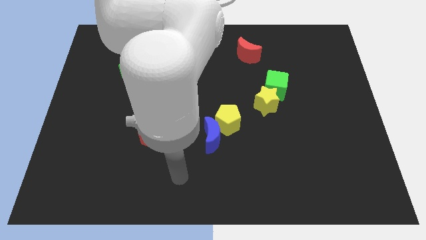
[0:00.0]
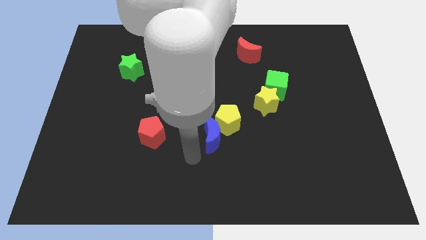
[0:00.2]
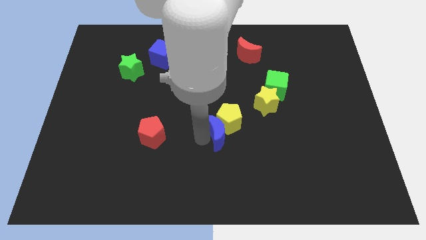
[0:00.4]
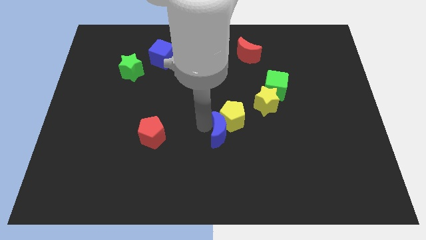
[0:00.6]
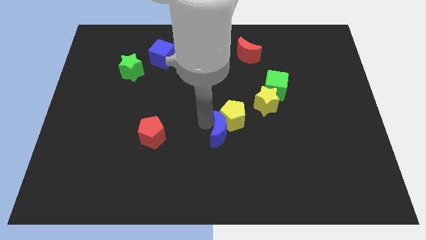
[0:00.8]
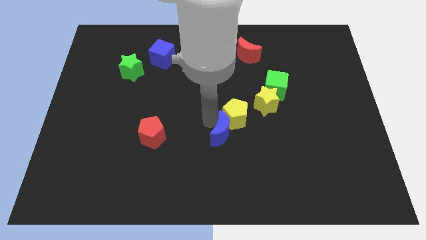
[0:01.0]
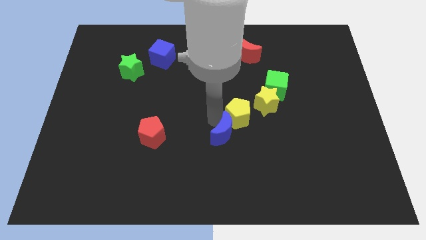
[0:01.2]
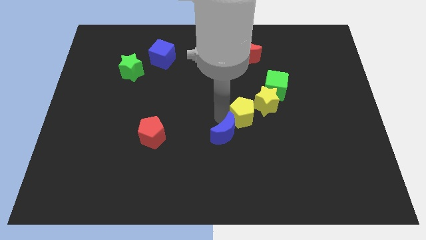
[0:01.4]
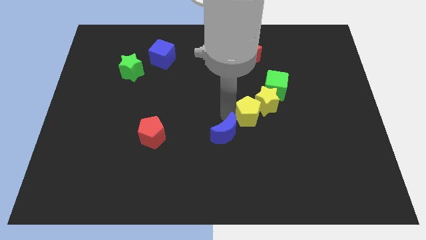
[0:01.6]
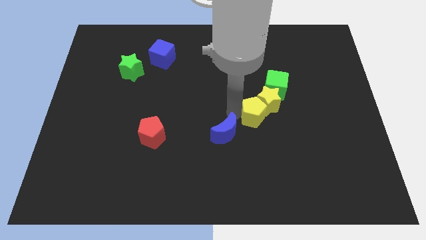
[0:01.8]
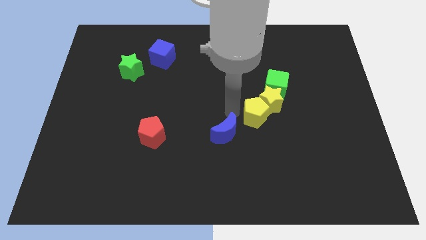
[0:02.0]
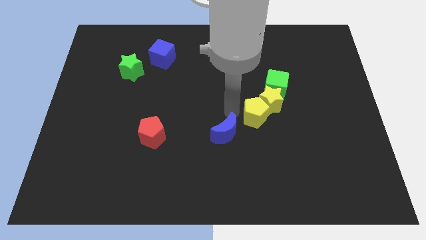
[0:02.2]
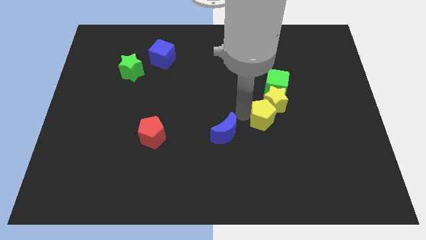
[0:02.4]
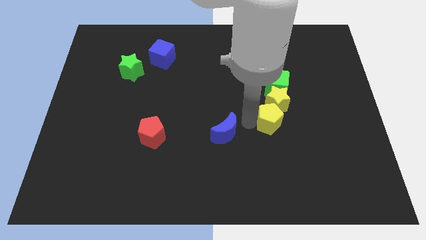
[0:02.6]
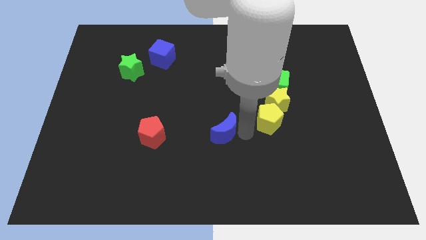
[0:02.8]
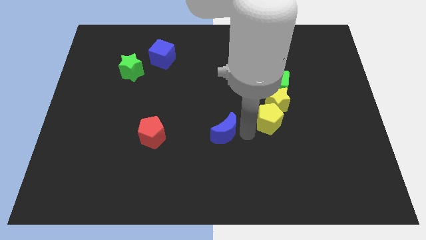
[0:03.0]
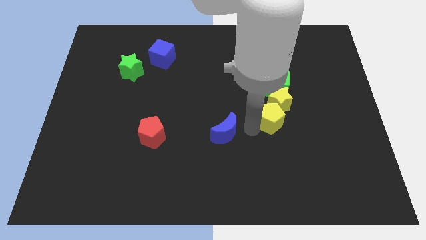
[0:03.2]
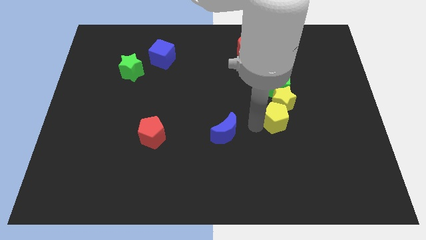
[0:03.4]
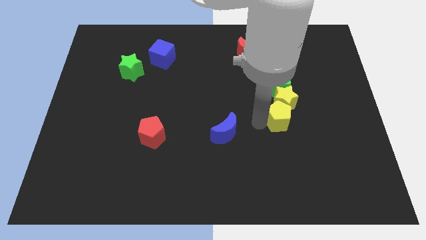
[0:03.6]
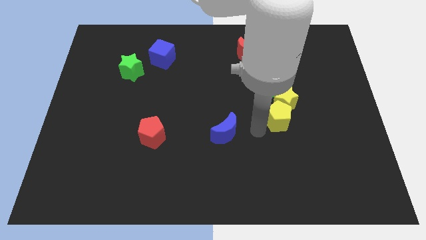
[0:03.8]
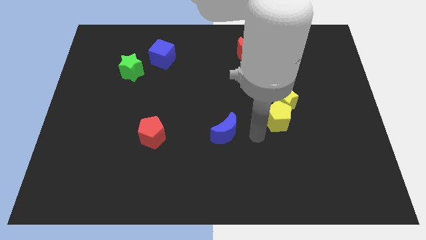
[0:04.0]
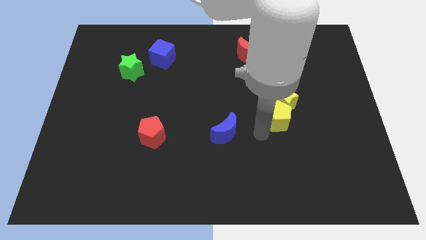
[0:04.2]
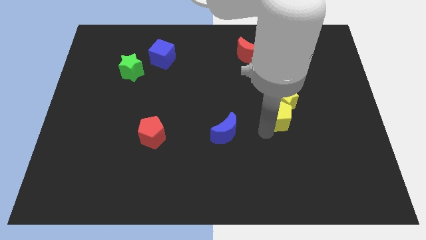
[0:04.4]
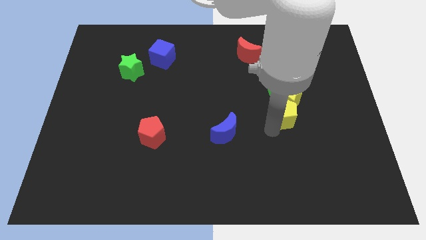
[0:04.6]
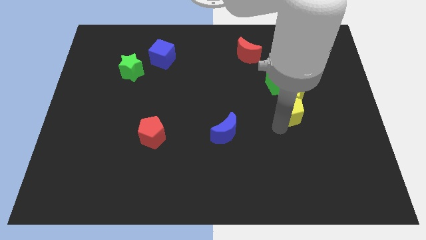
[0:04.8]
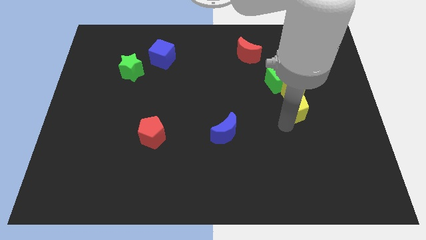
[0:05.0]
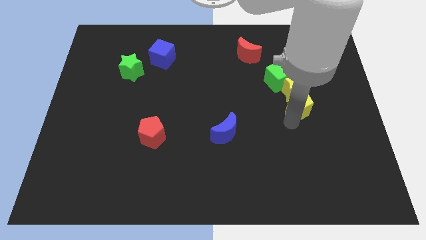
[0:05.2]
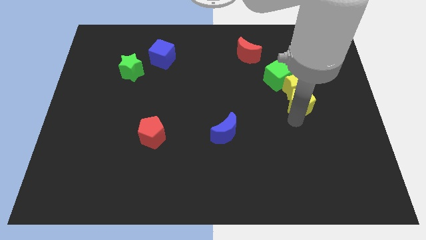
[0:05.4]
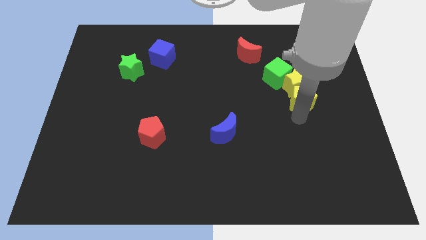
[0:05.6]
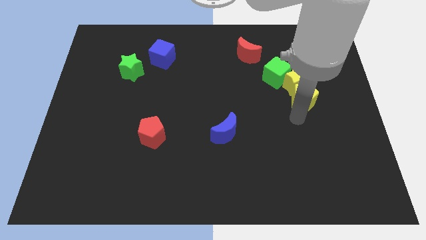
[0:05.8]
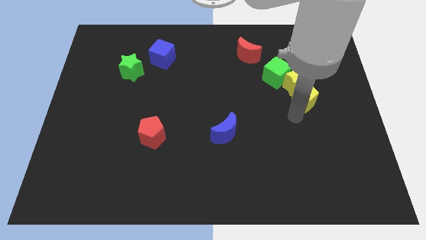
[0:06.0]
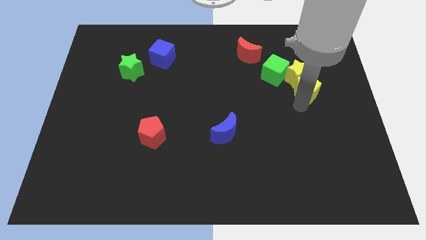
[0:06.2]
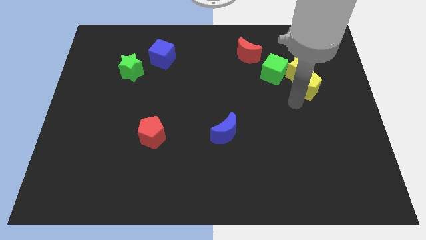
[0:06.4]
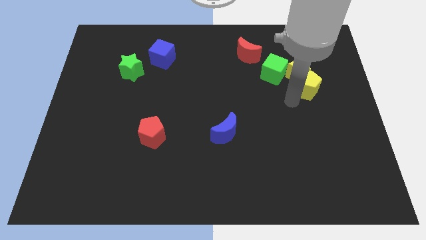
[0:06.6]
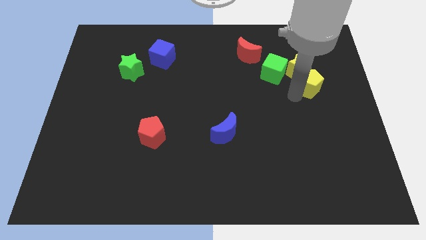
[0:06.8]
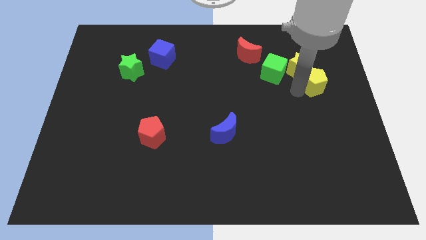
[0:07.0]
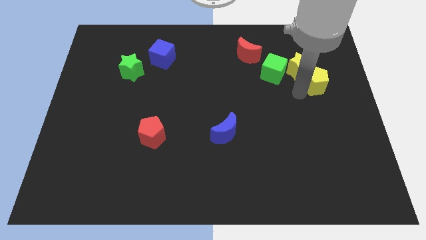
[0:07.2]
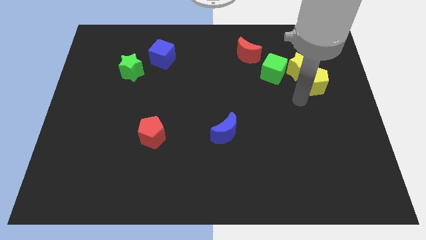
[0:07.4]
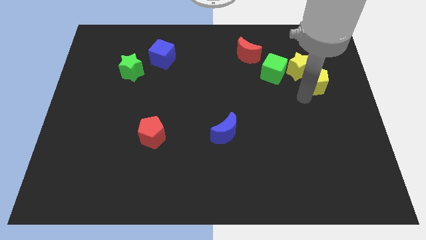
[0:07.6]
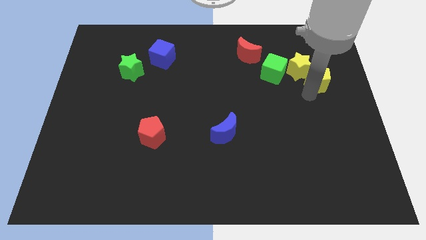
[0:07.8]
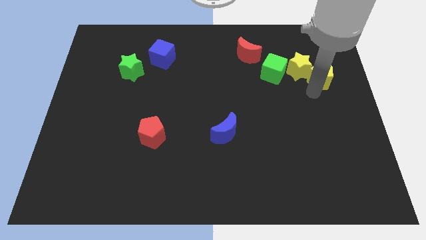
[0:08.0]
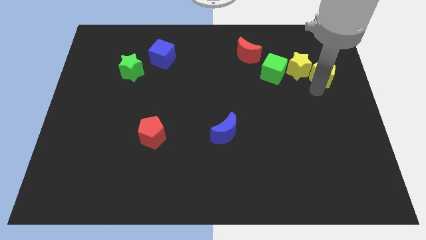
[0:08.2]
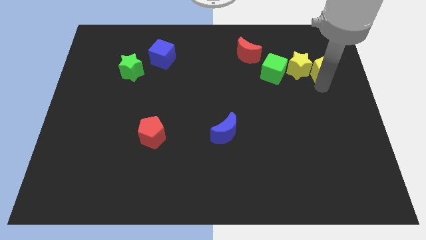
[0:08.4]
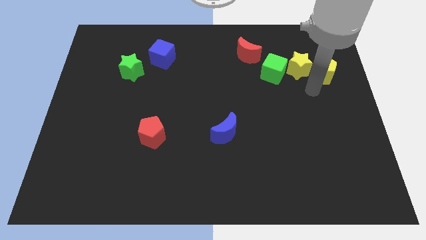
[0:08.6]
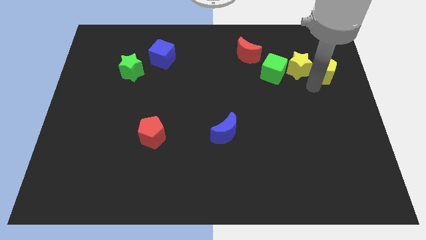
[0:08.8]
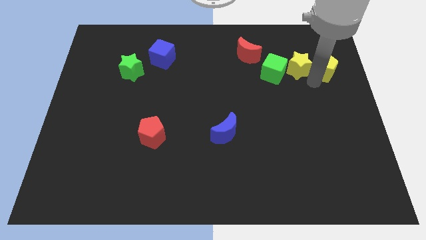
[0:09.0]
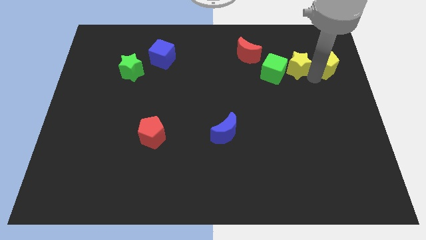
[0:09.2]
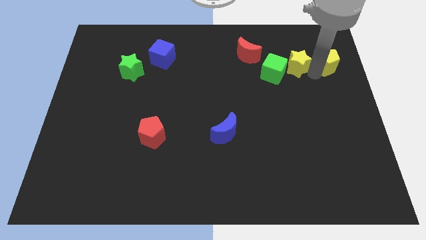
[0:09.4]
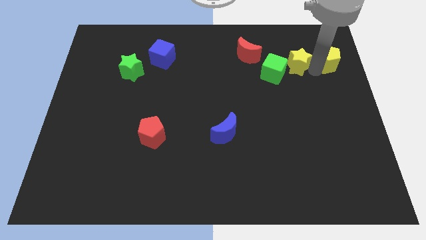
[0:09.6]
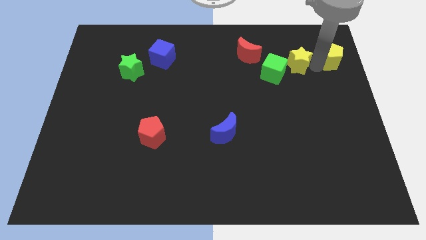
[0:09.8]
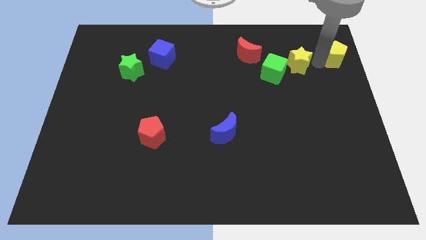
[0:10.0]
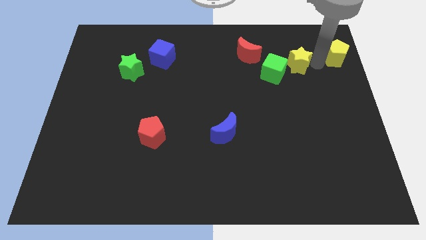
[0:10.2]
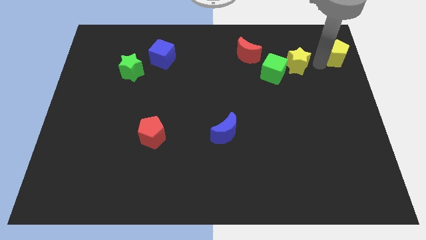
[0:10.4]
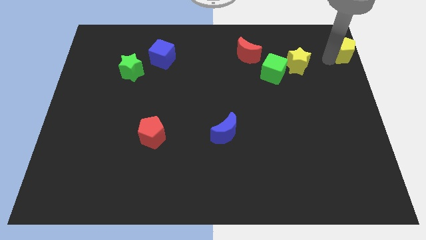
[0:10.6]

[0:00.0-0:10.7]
move the yellow pentagon to the top right corner
